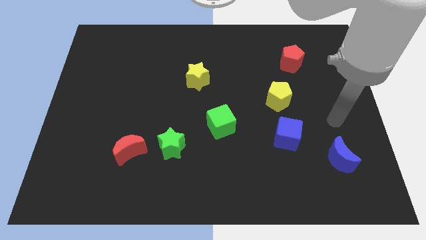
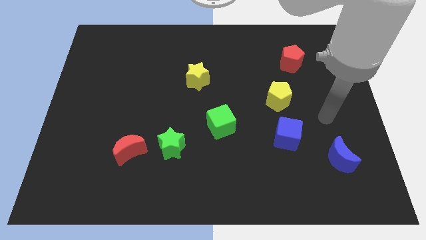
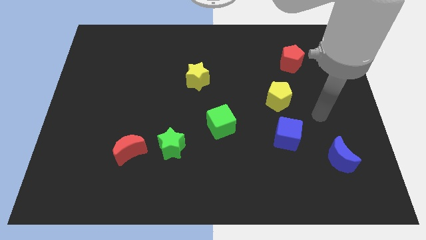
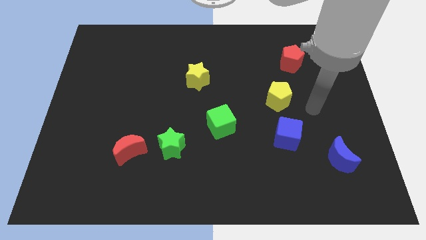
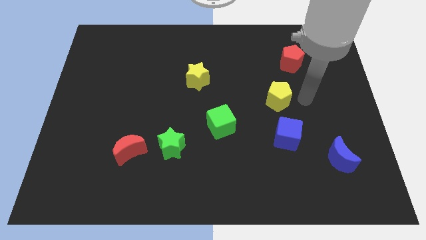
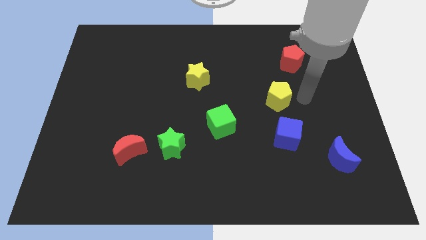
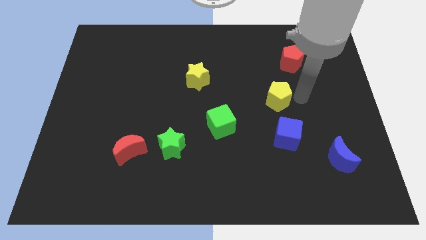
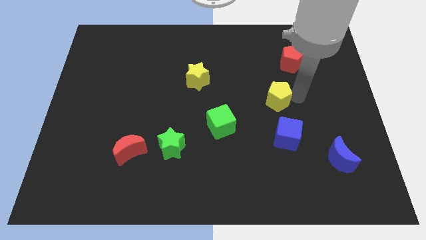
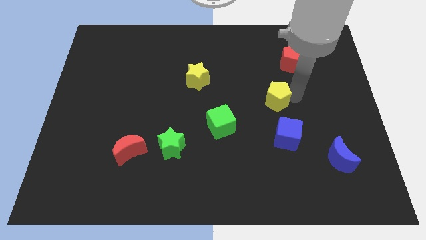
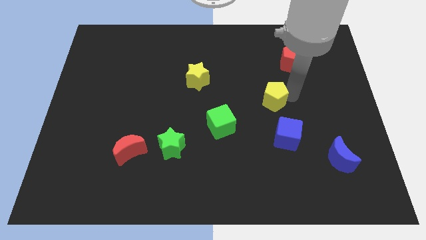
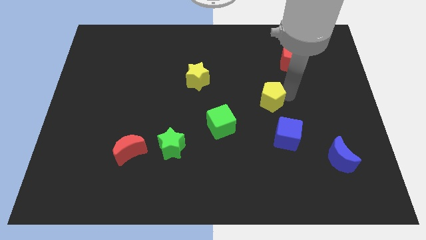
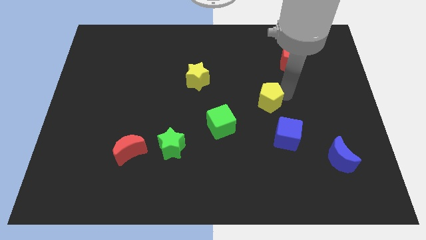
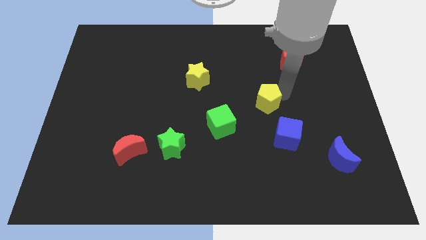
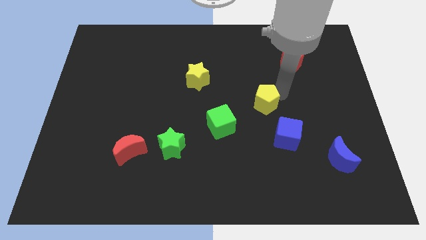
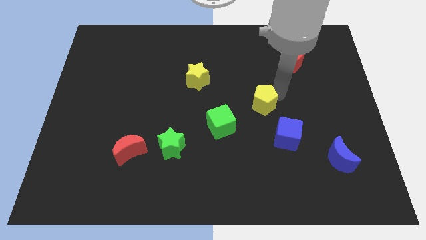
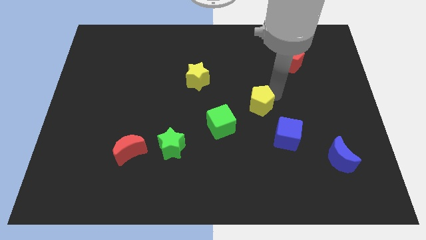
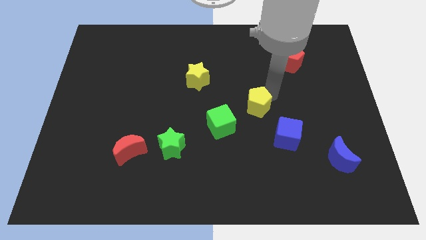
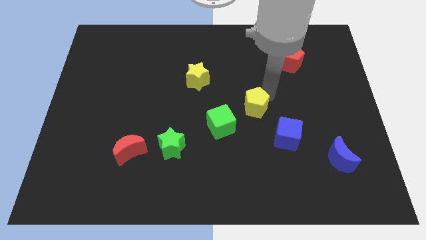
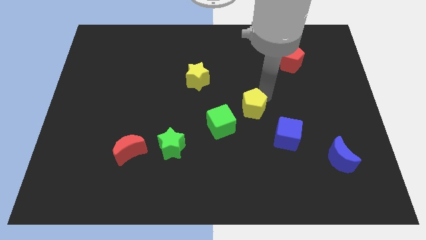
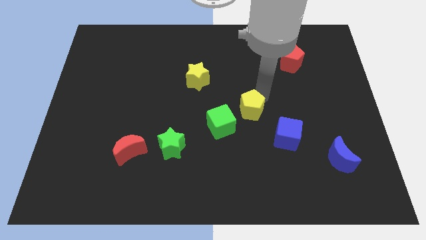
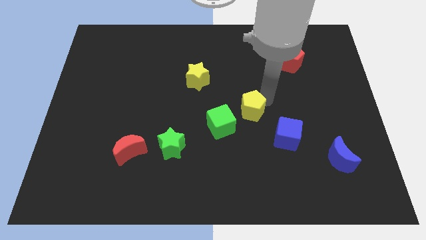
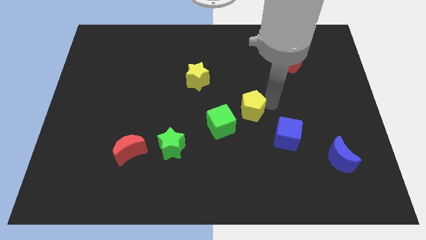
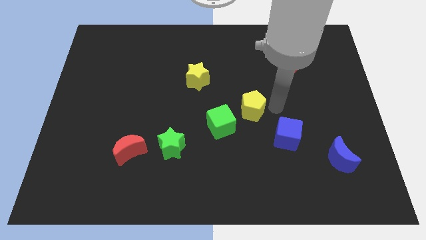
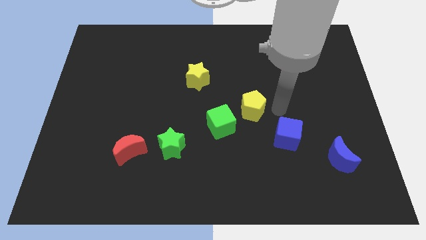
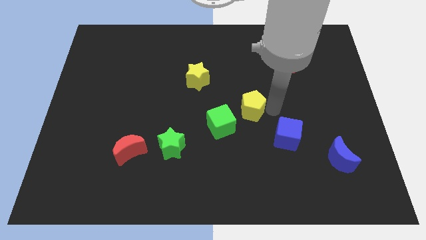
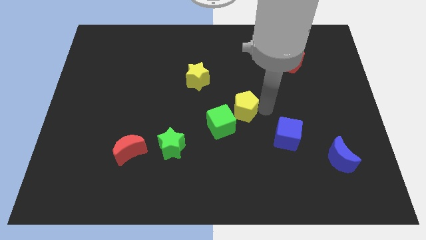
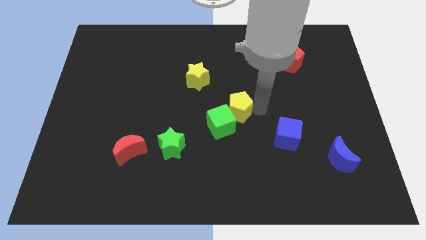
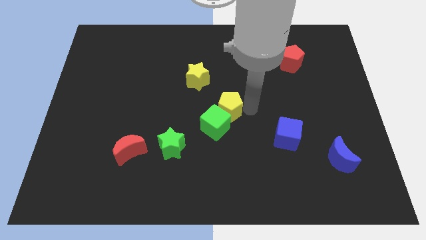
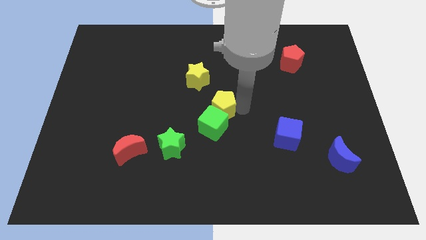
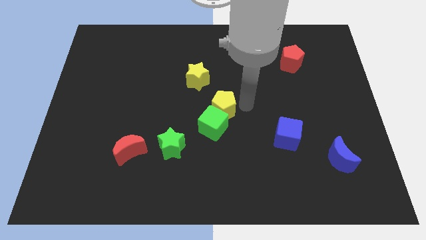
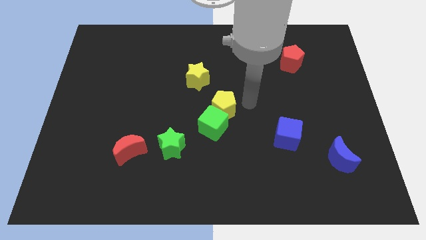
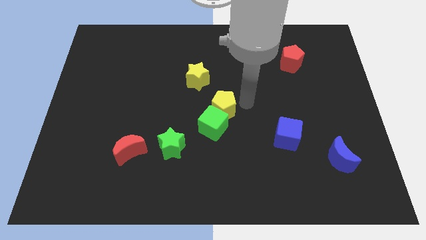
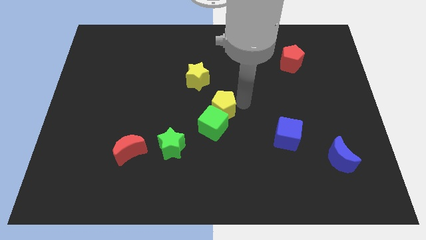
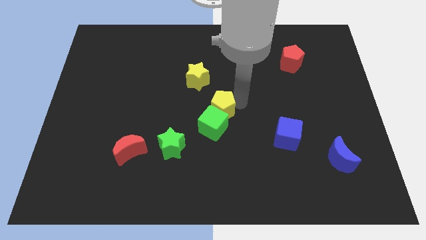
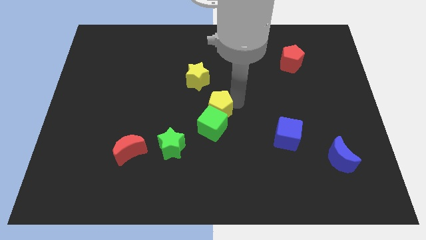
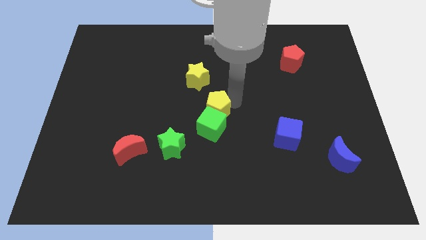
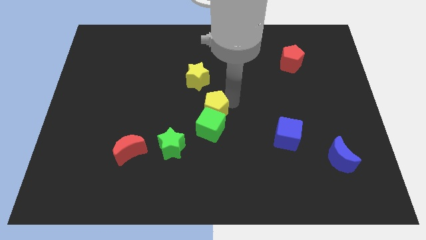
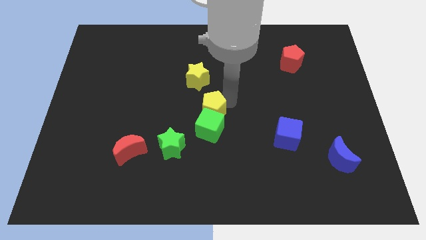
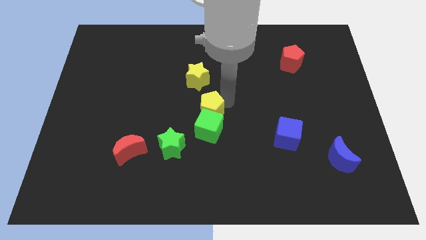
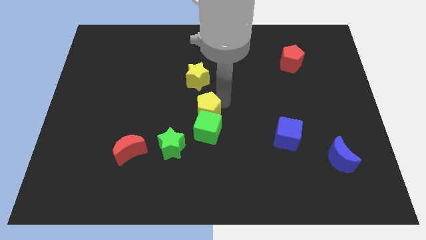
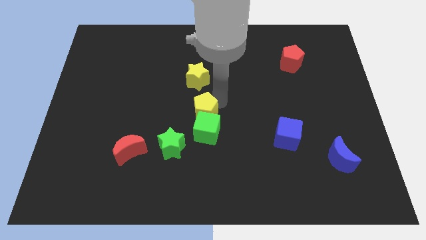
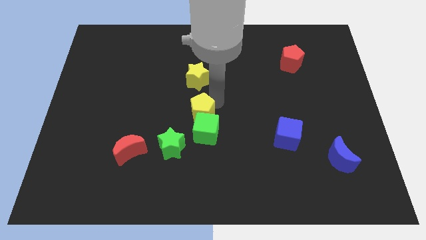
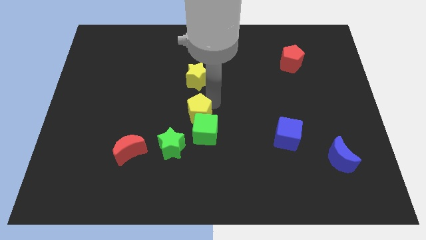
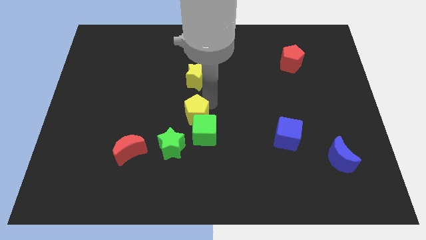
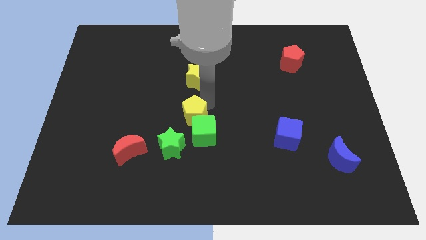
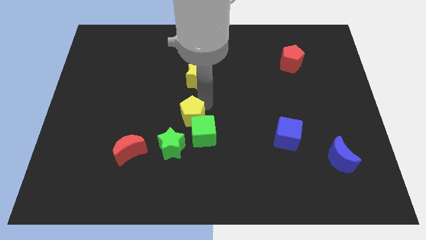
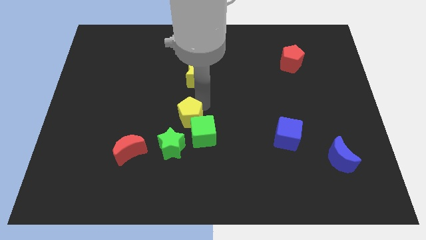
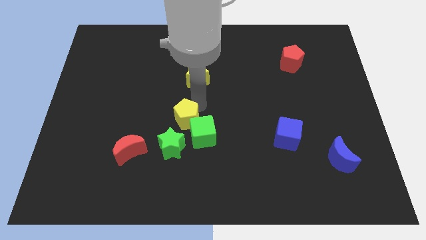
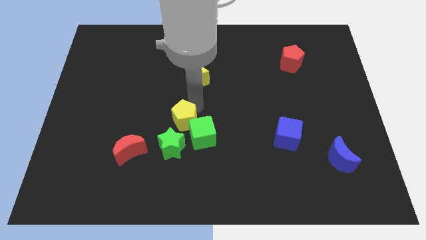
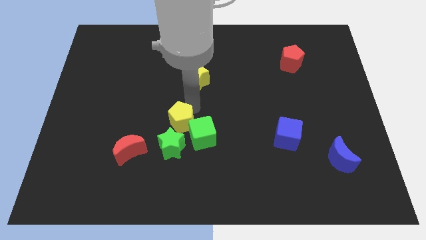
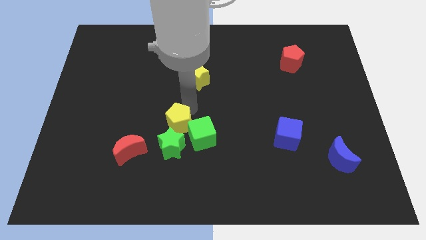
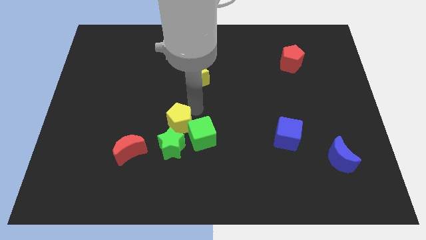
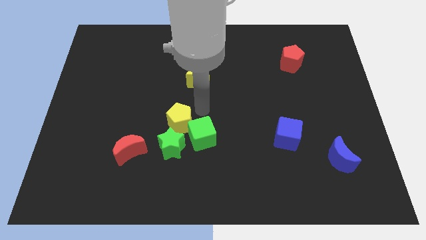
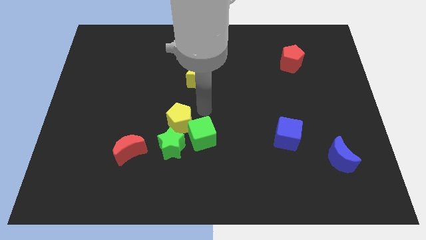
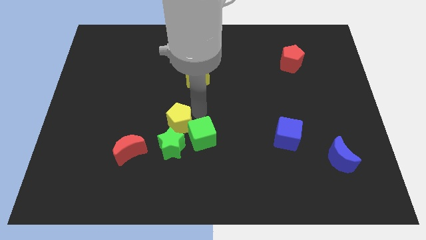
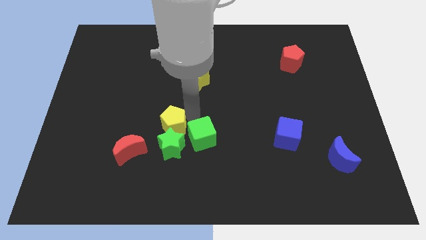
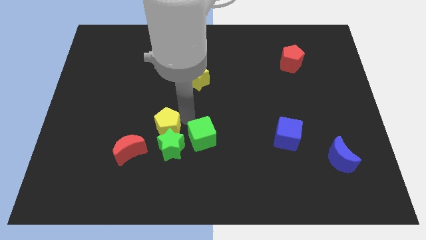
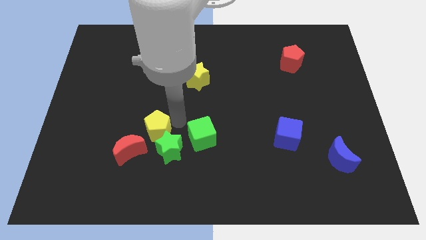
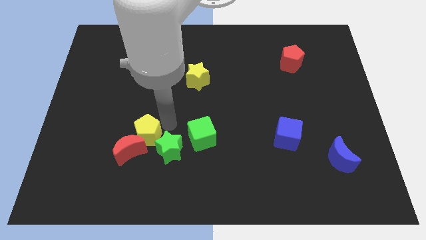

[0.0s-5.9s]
move the yellow pentagon to the red moon

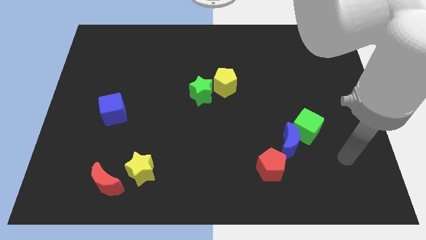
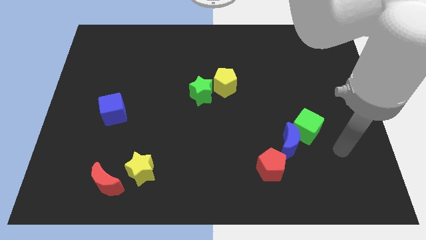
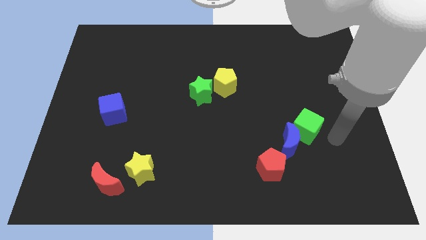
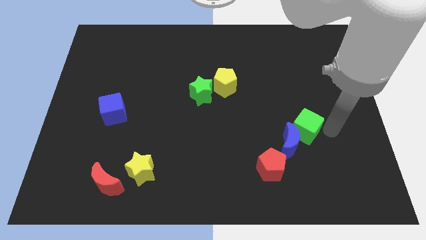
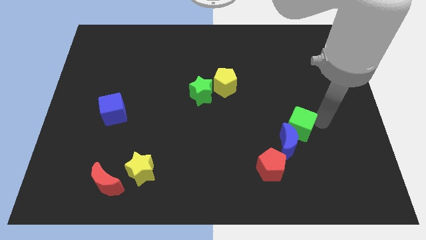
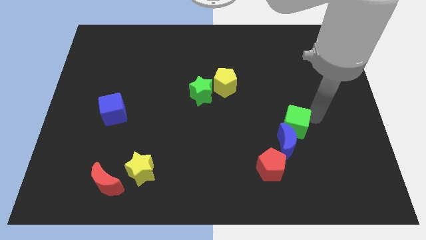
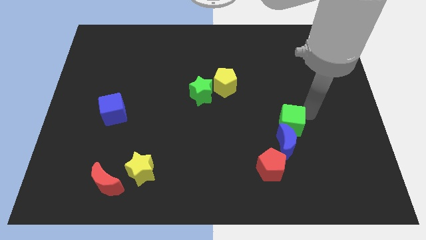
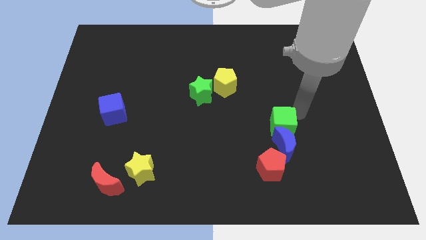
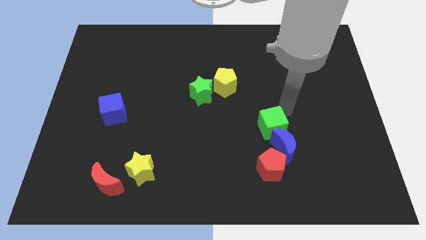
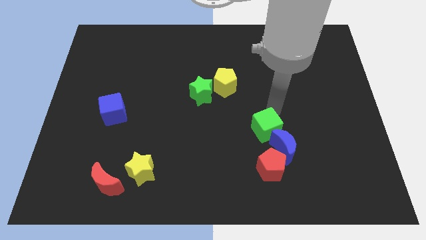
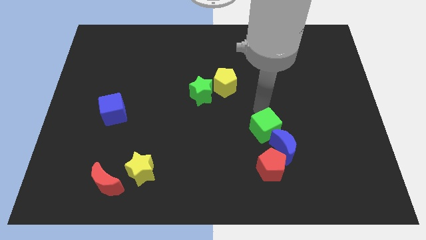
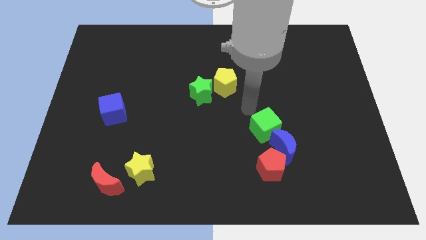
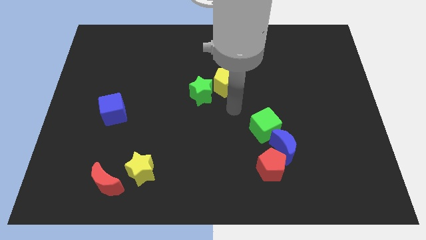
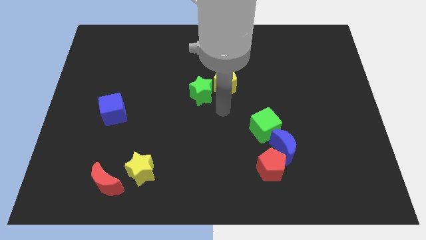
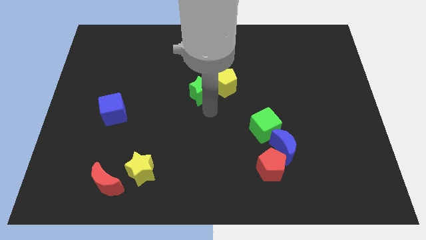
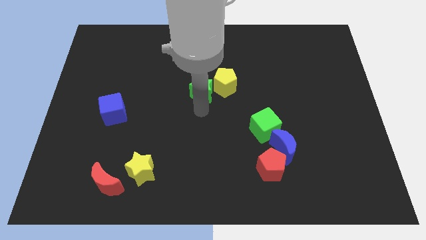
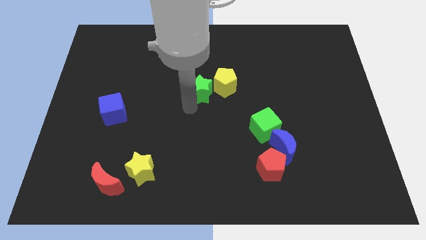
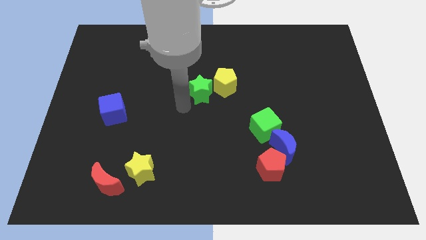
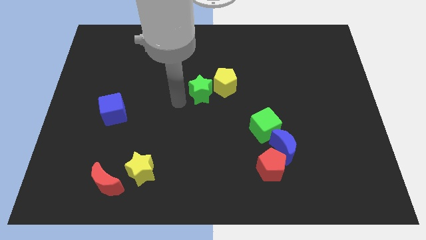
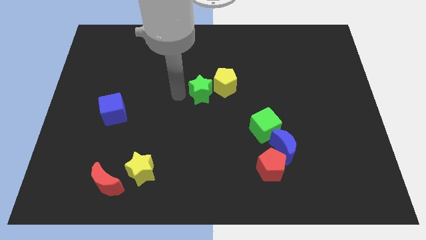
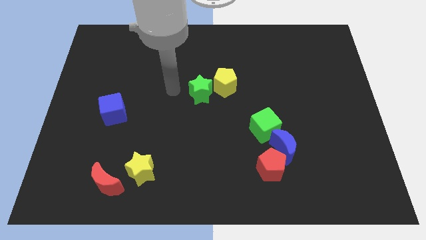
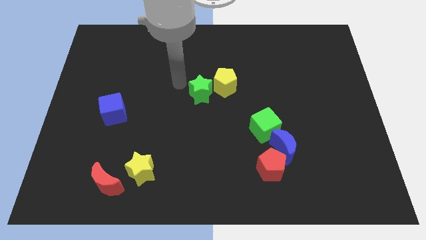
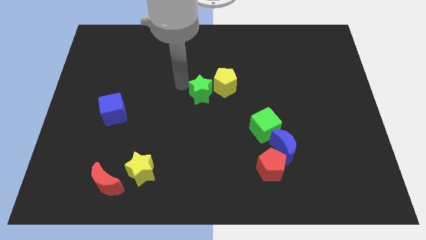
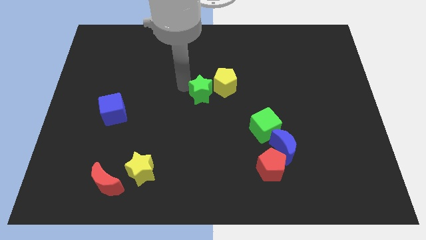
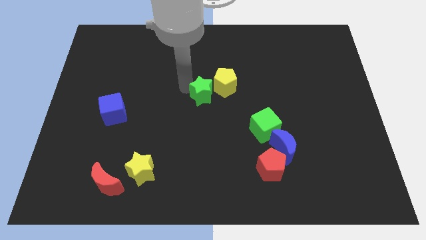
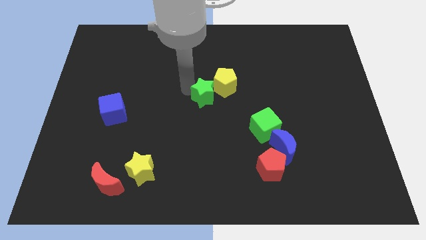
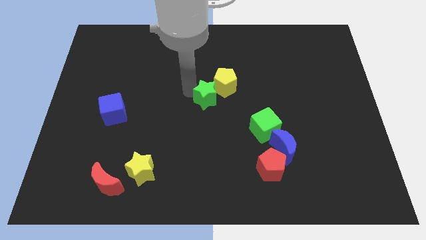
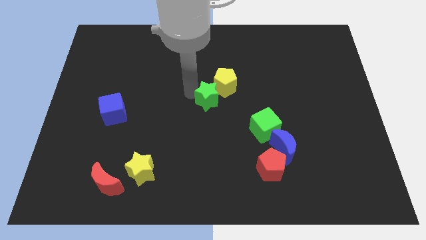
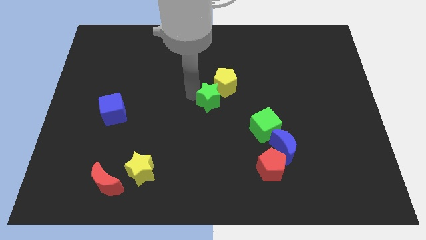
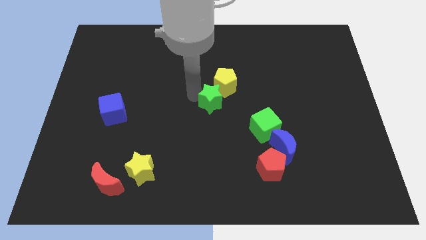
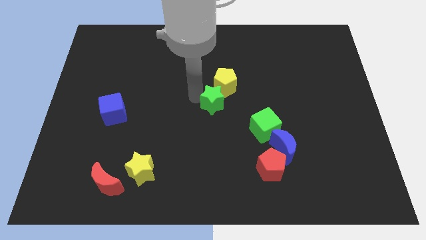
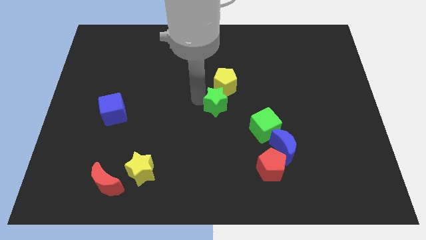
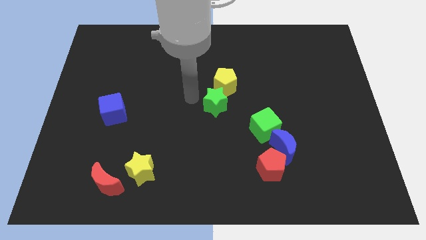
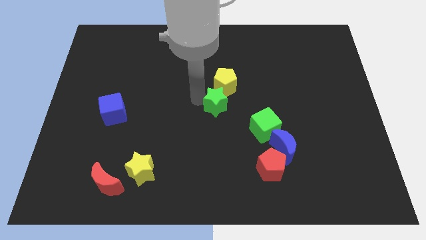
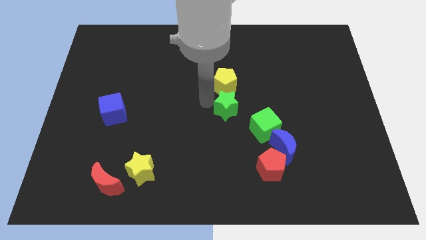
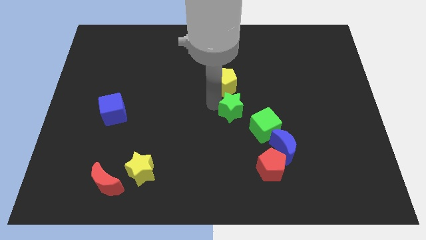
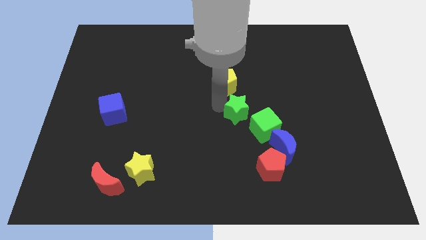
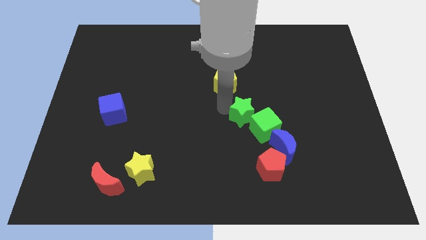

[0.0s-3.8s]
move the green star towards the green cube
